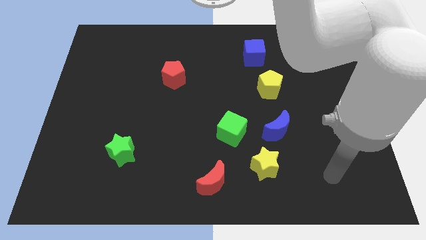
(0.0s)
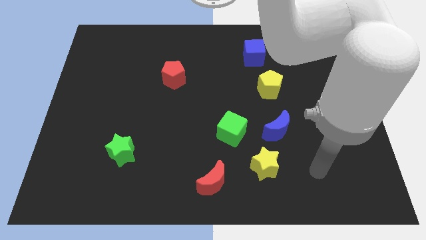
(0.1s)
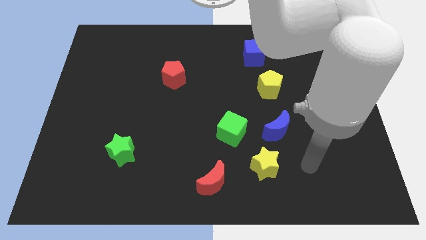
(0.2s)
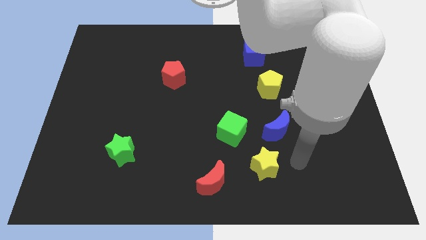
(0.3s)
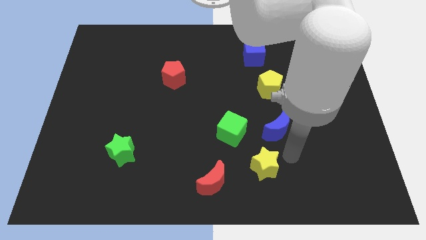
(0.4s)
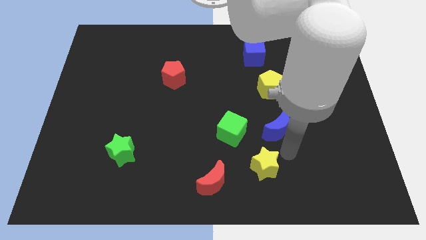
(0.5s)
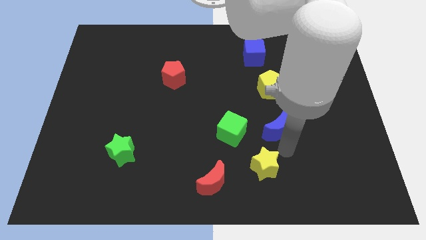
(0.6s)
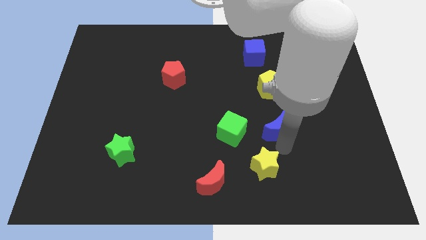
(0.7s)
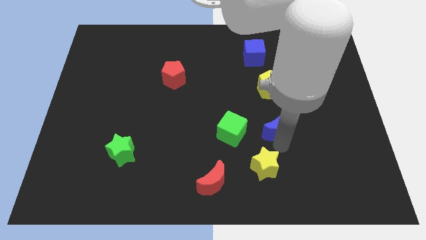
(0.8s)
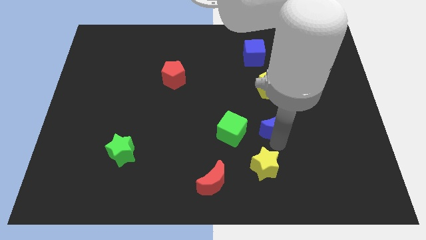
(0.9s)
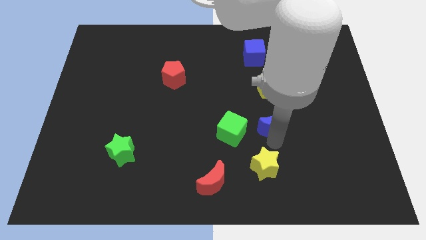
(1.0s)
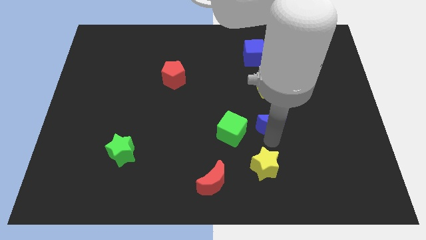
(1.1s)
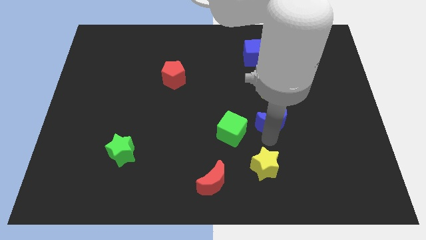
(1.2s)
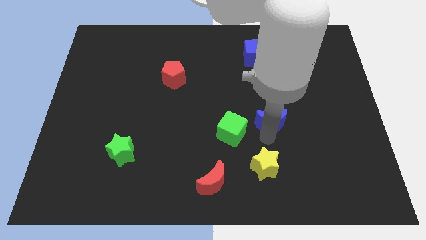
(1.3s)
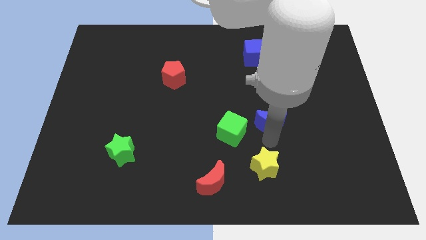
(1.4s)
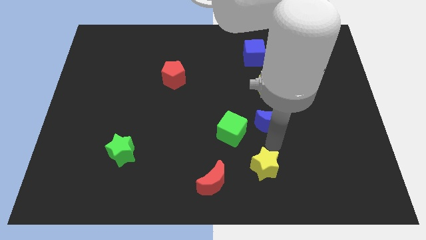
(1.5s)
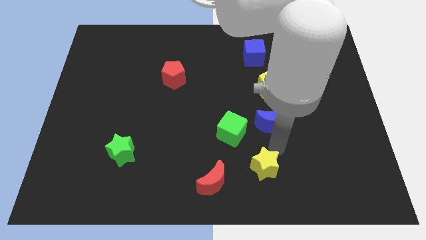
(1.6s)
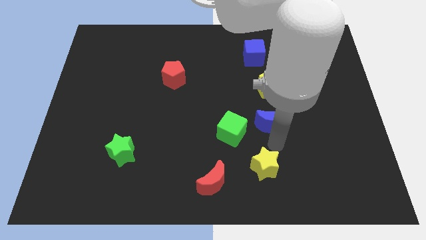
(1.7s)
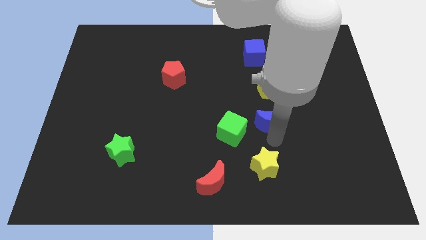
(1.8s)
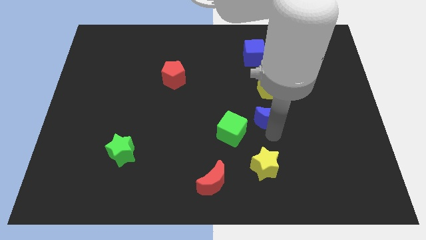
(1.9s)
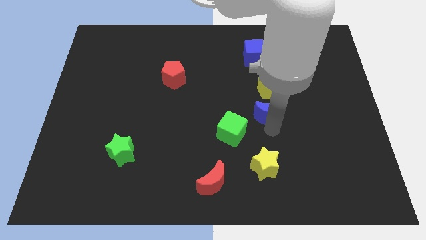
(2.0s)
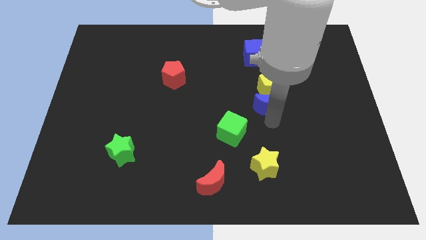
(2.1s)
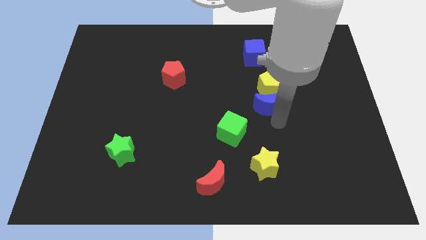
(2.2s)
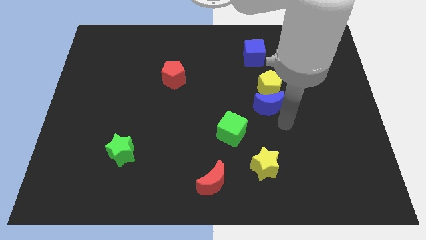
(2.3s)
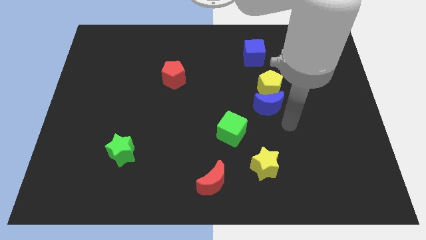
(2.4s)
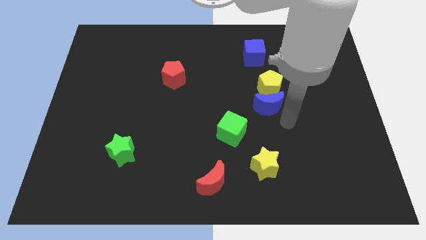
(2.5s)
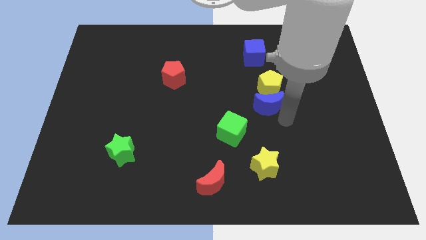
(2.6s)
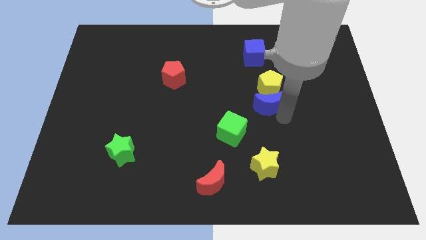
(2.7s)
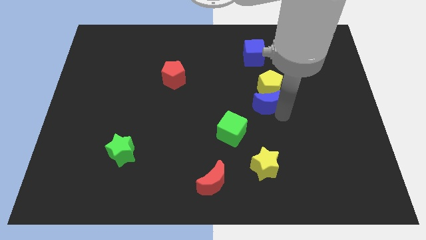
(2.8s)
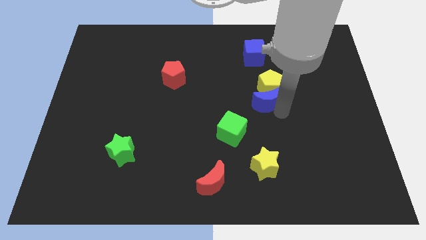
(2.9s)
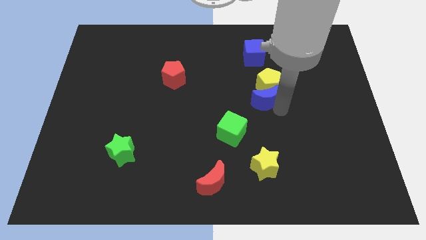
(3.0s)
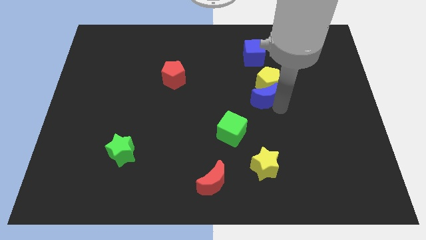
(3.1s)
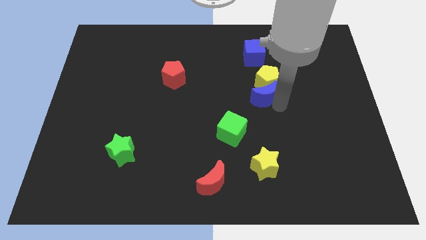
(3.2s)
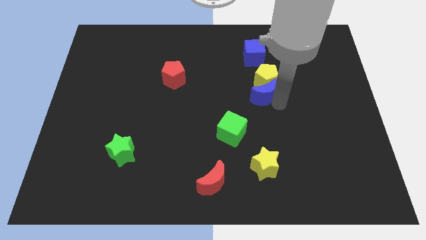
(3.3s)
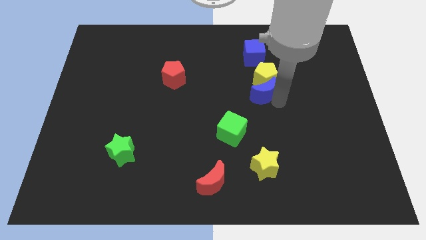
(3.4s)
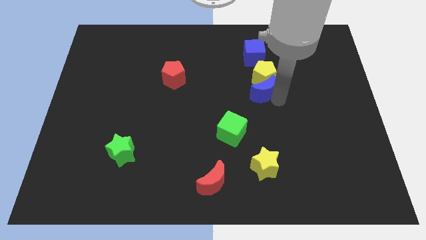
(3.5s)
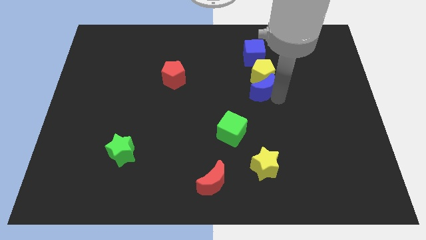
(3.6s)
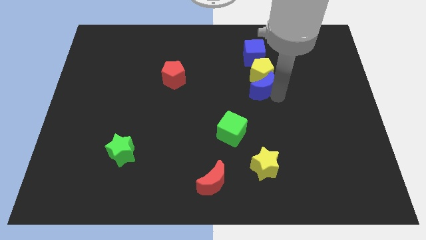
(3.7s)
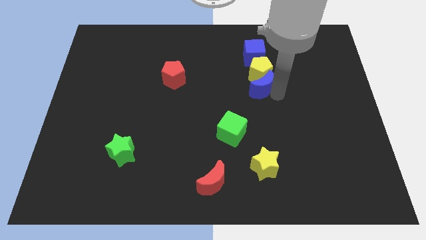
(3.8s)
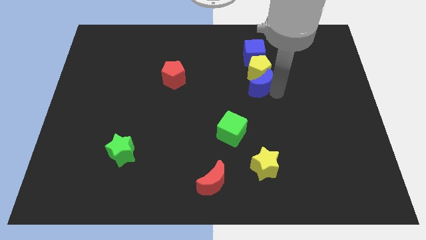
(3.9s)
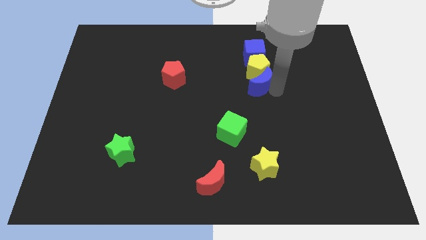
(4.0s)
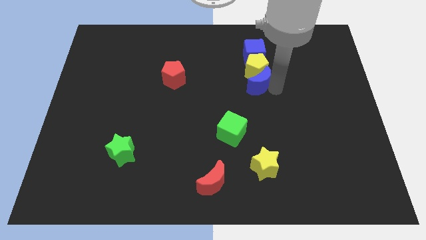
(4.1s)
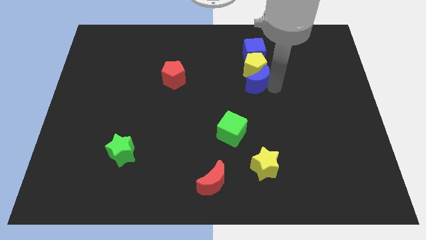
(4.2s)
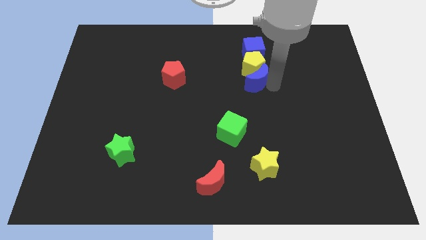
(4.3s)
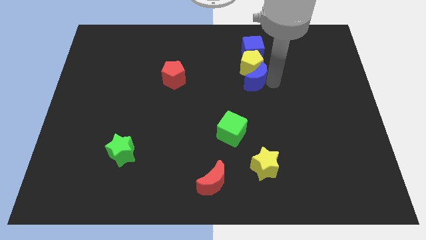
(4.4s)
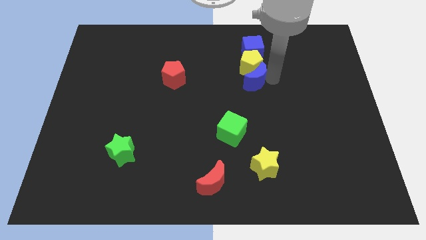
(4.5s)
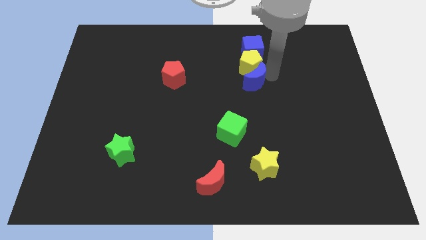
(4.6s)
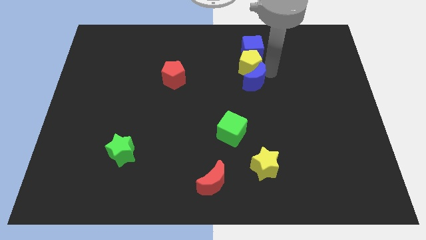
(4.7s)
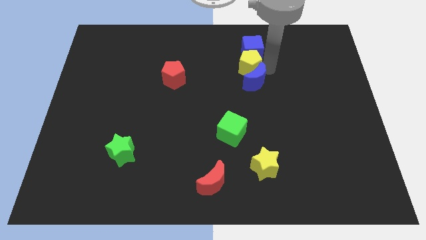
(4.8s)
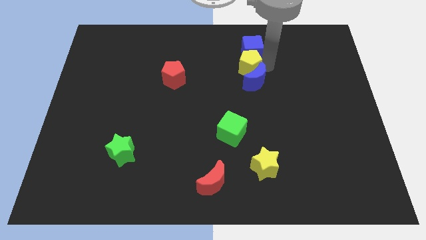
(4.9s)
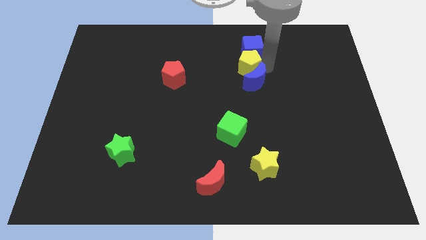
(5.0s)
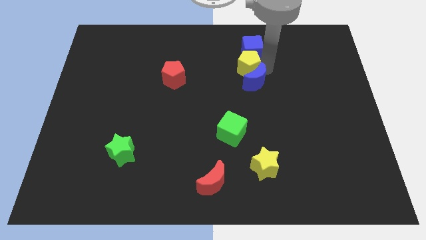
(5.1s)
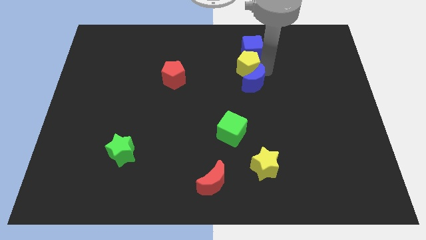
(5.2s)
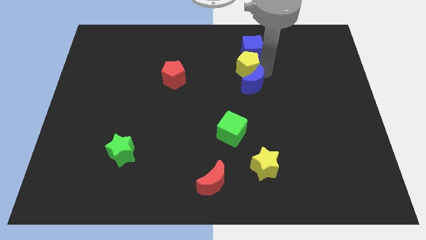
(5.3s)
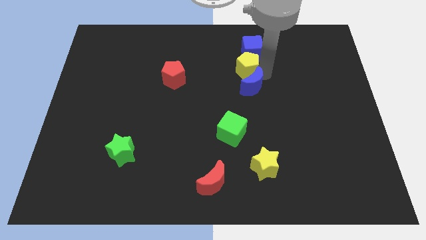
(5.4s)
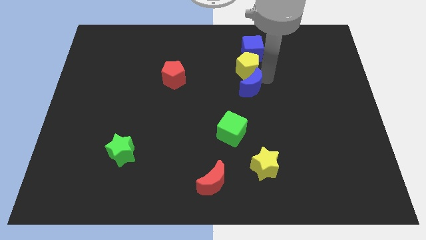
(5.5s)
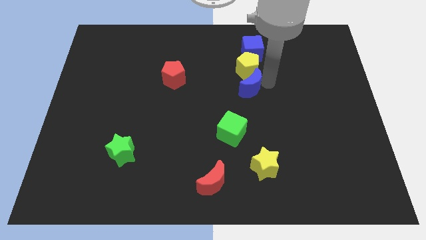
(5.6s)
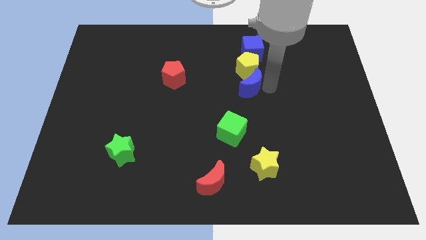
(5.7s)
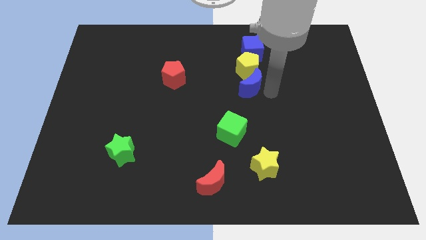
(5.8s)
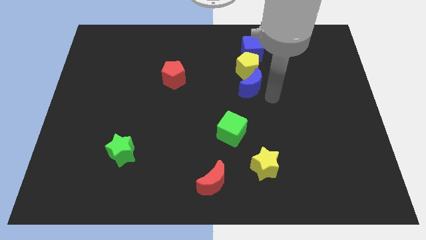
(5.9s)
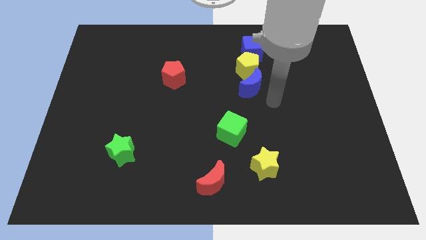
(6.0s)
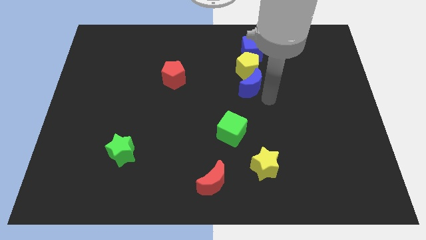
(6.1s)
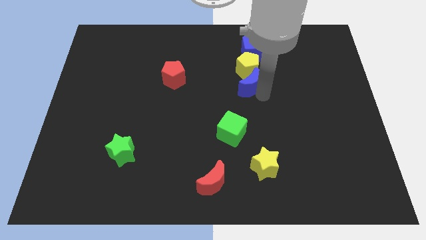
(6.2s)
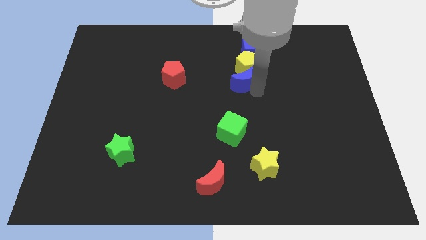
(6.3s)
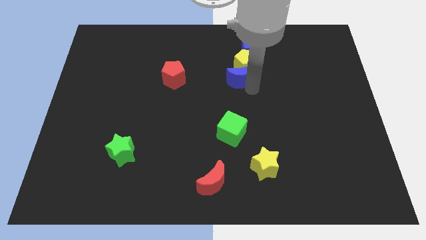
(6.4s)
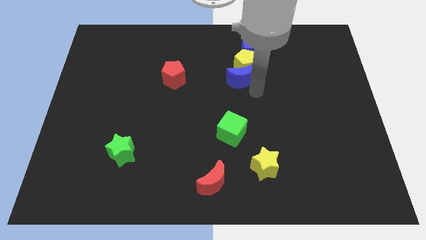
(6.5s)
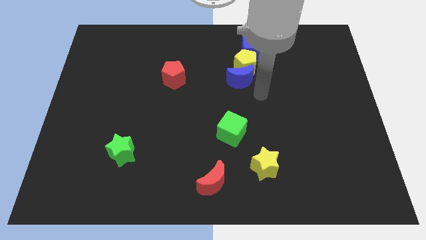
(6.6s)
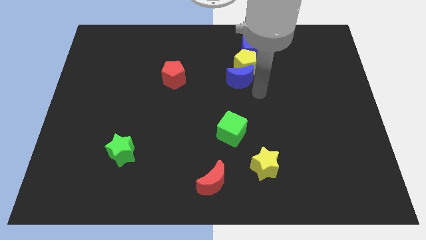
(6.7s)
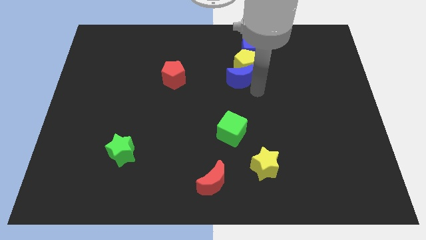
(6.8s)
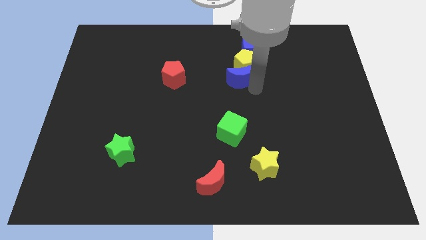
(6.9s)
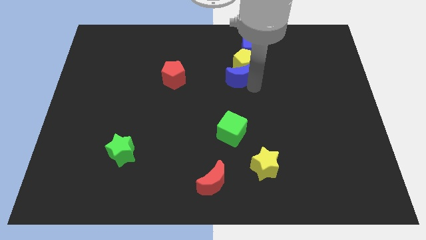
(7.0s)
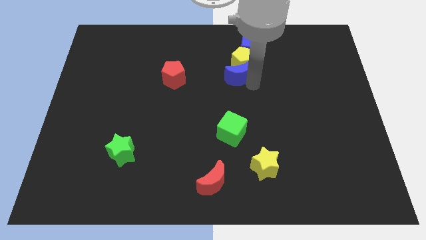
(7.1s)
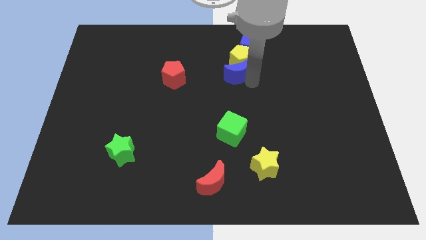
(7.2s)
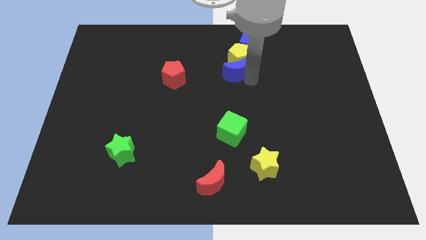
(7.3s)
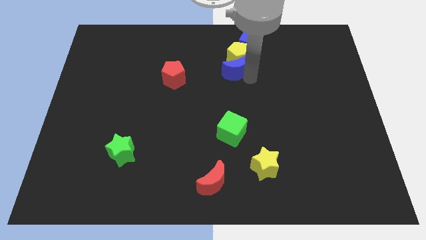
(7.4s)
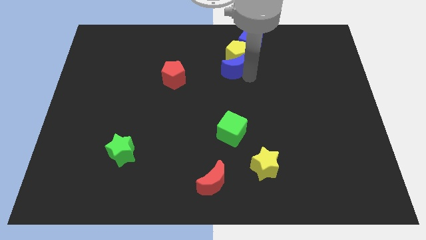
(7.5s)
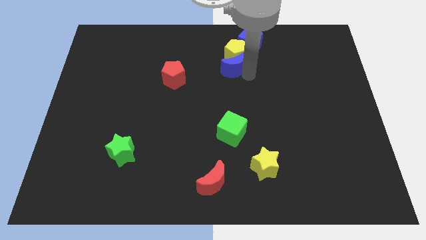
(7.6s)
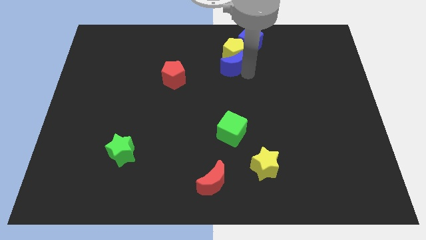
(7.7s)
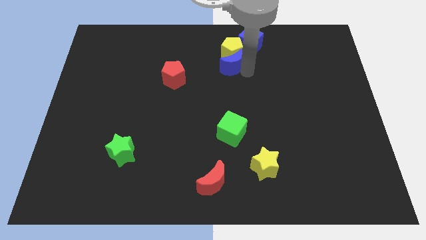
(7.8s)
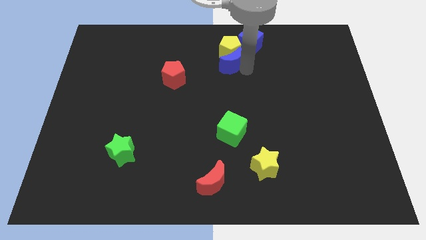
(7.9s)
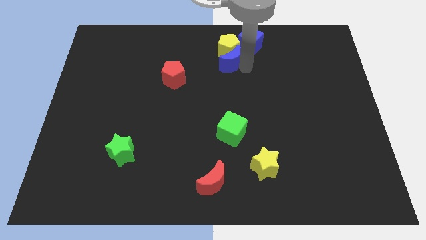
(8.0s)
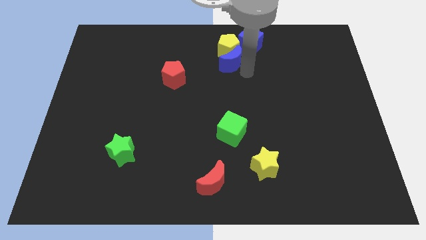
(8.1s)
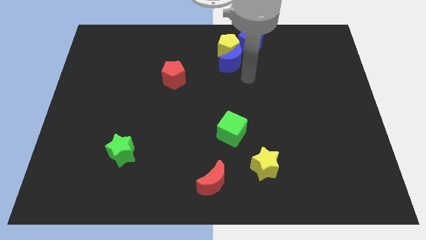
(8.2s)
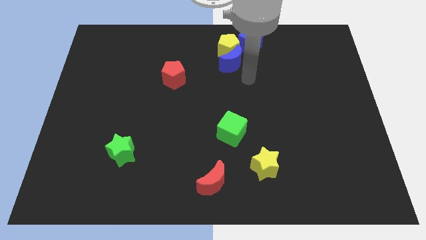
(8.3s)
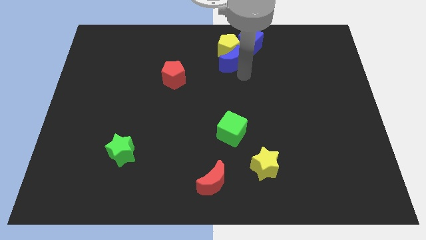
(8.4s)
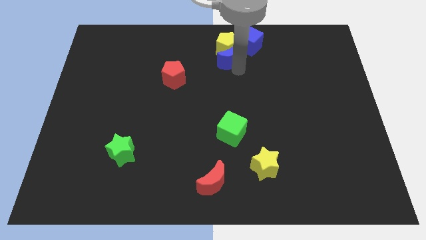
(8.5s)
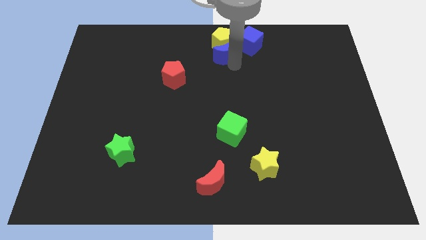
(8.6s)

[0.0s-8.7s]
slide the blue moon just left of the blue cube
